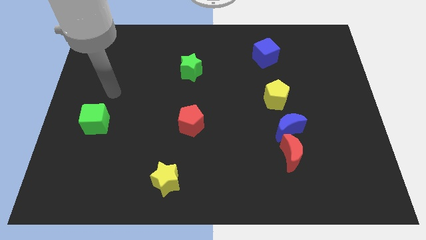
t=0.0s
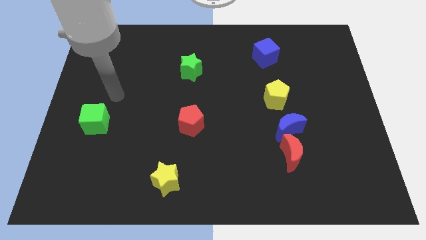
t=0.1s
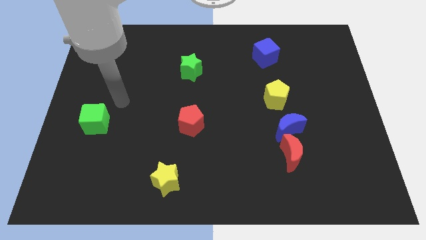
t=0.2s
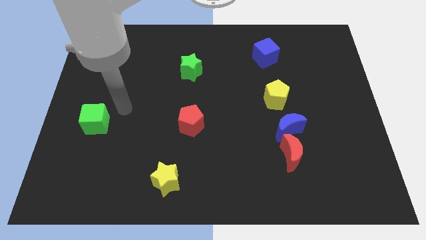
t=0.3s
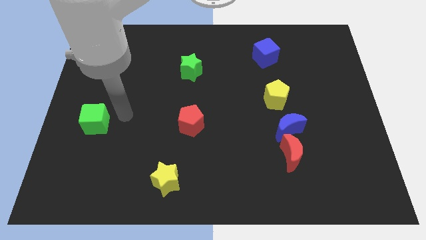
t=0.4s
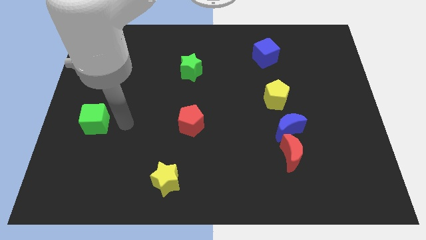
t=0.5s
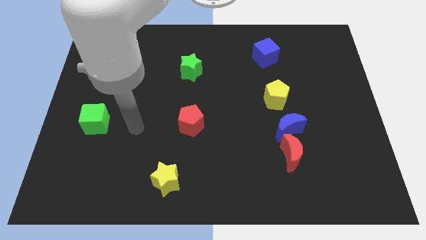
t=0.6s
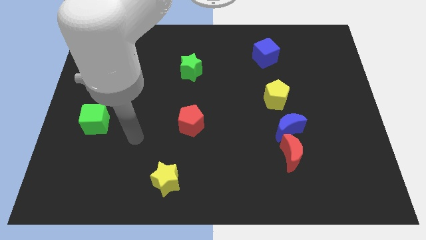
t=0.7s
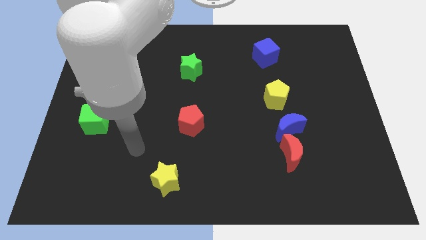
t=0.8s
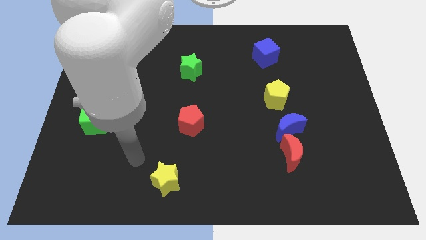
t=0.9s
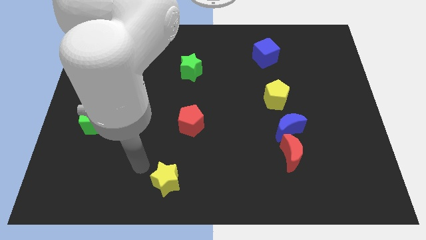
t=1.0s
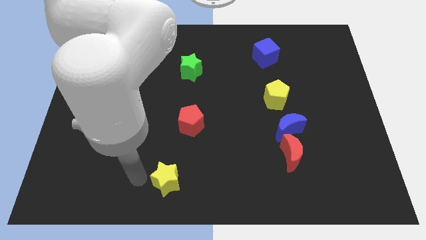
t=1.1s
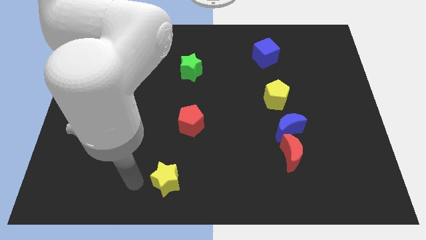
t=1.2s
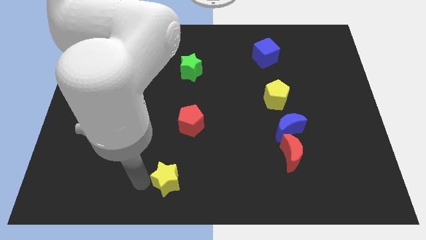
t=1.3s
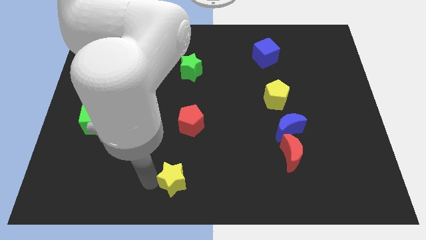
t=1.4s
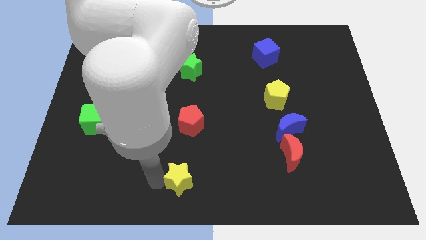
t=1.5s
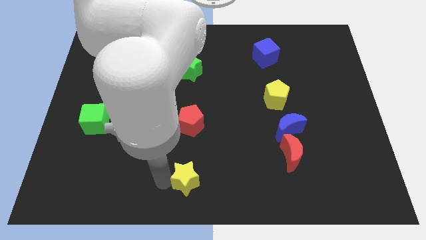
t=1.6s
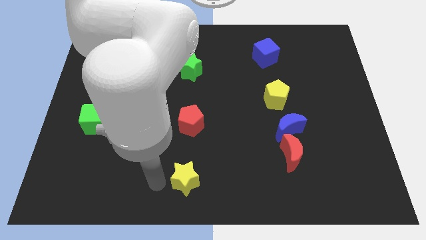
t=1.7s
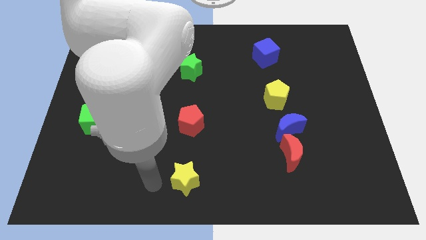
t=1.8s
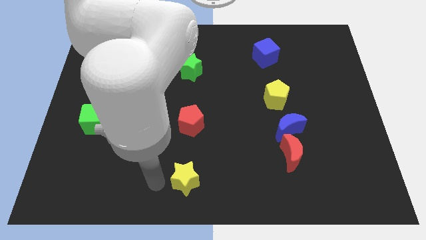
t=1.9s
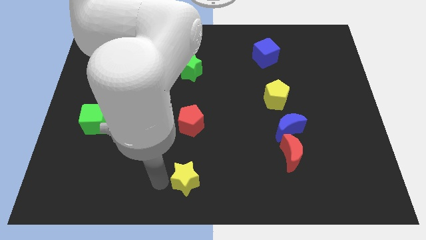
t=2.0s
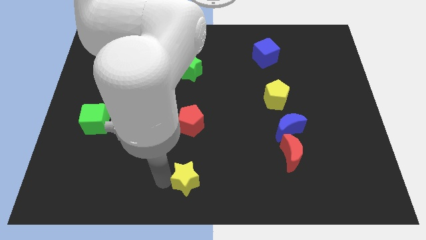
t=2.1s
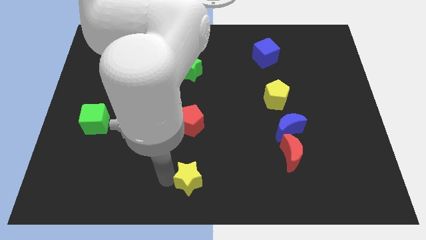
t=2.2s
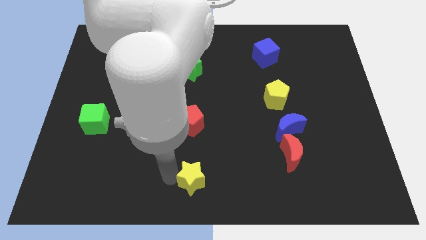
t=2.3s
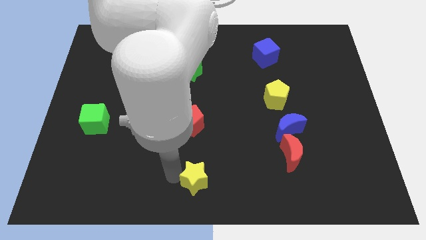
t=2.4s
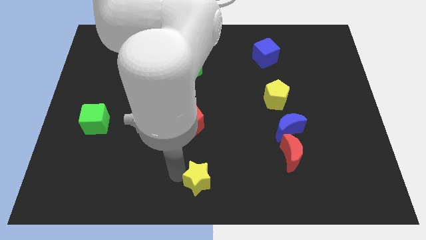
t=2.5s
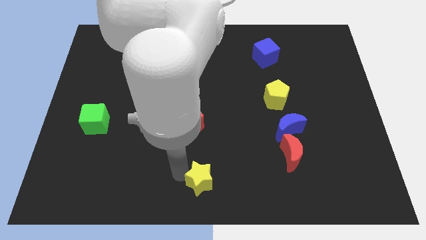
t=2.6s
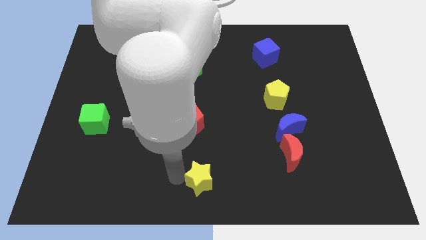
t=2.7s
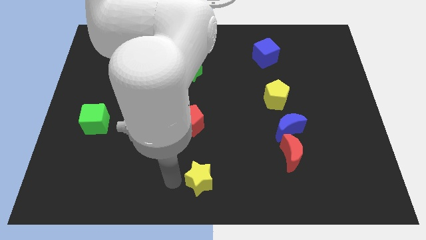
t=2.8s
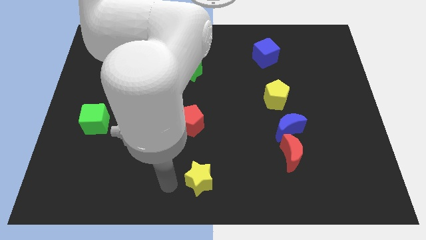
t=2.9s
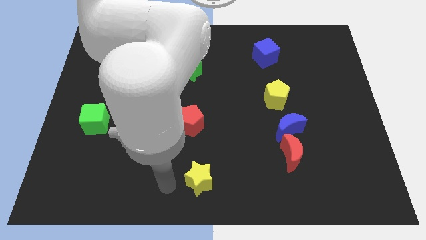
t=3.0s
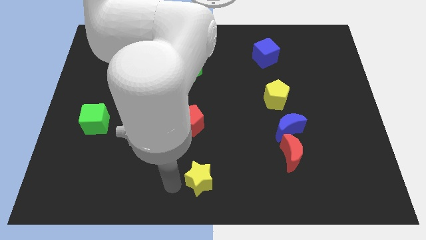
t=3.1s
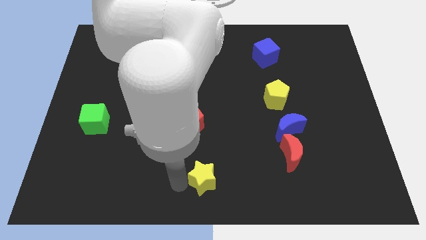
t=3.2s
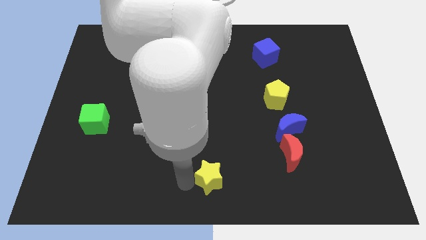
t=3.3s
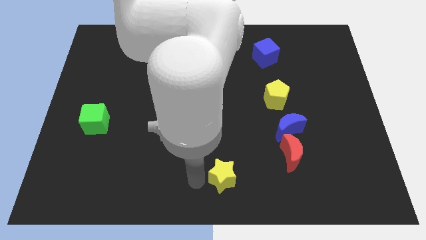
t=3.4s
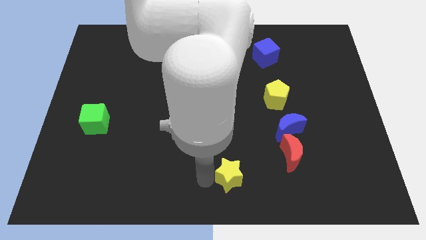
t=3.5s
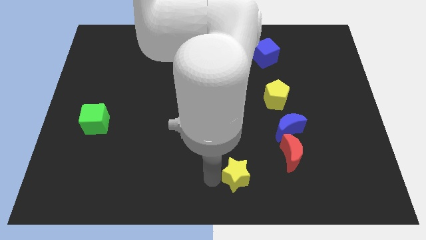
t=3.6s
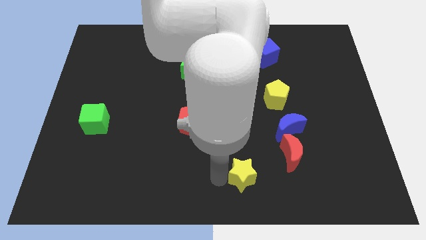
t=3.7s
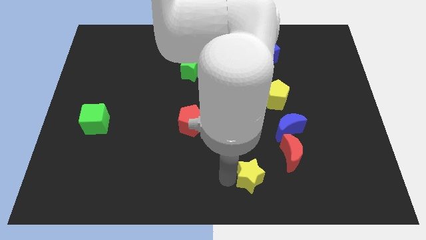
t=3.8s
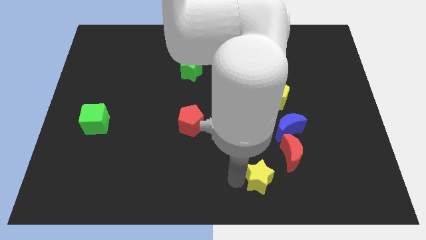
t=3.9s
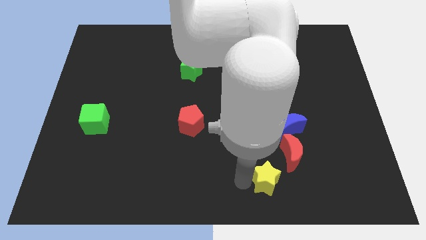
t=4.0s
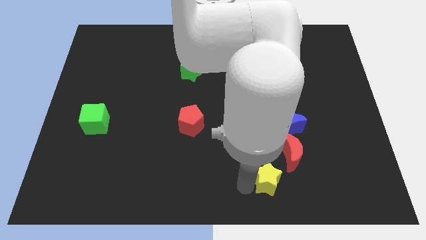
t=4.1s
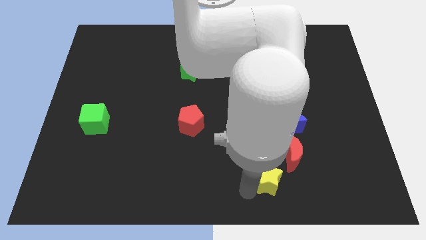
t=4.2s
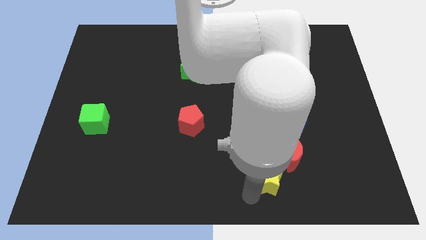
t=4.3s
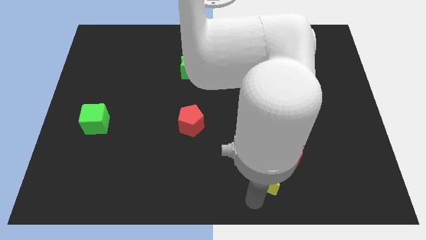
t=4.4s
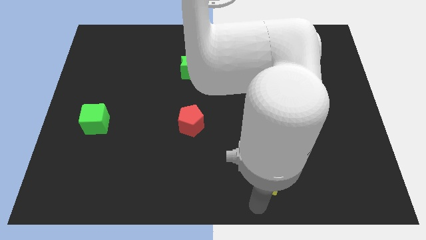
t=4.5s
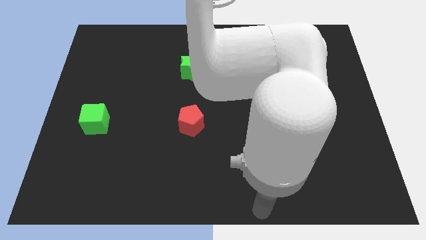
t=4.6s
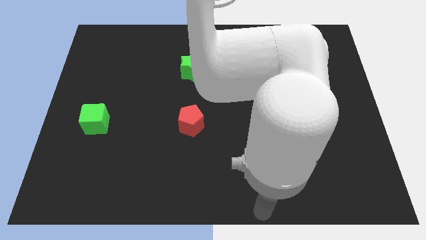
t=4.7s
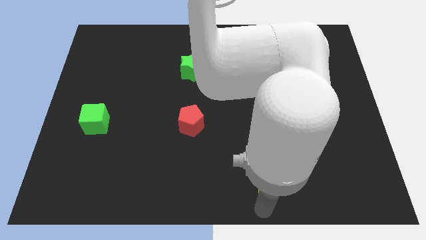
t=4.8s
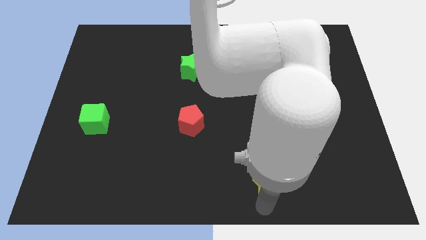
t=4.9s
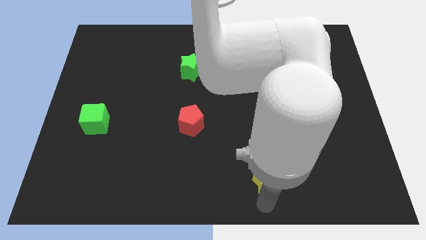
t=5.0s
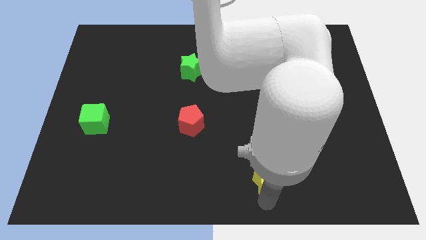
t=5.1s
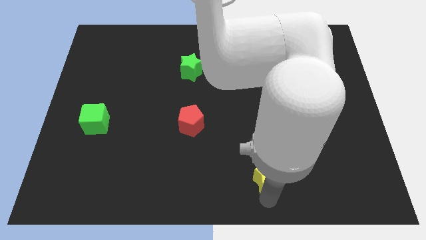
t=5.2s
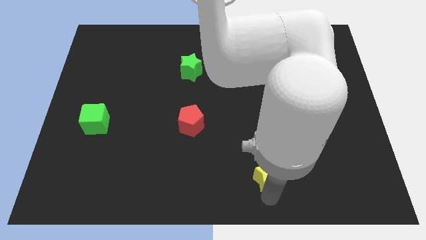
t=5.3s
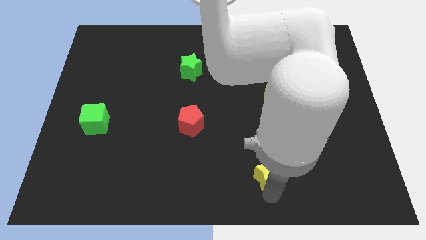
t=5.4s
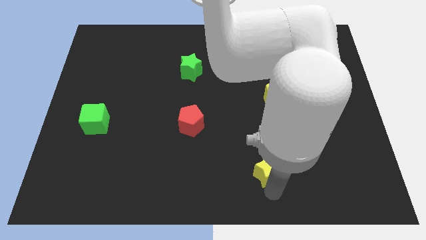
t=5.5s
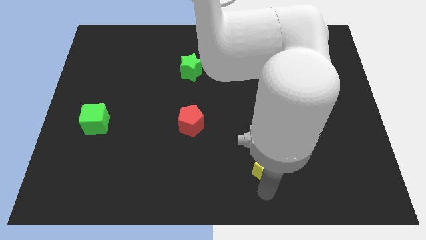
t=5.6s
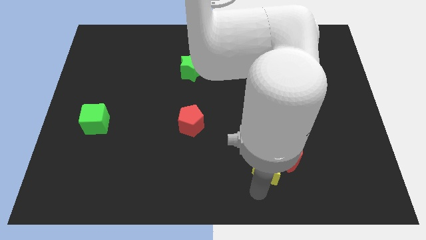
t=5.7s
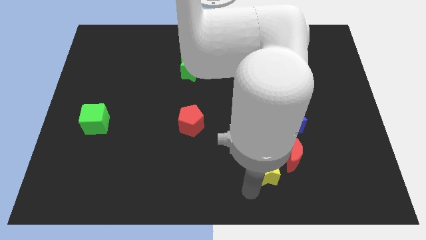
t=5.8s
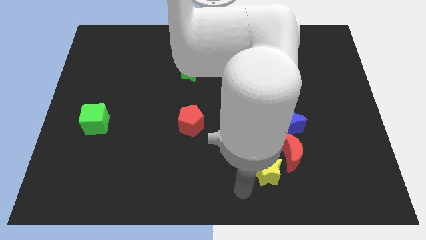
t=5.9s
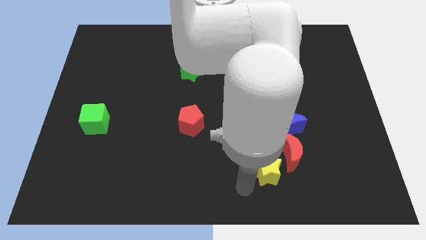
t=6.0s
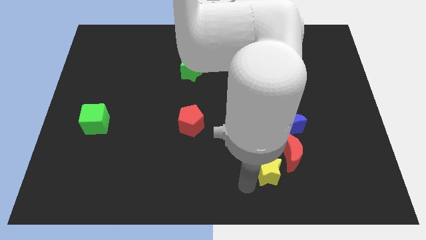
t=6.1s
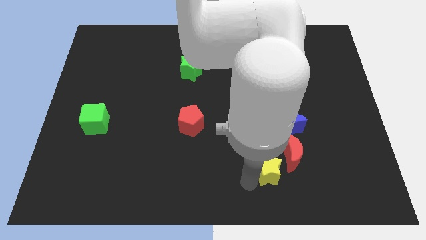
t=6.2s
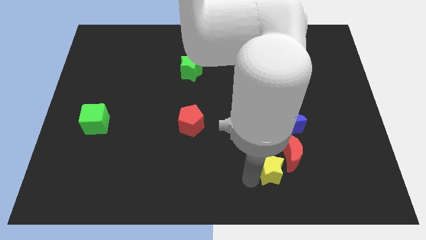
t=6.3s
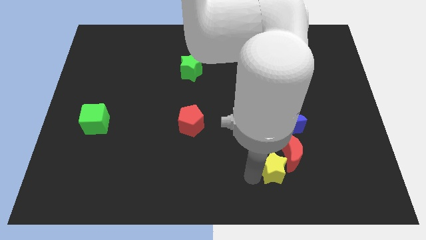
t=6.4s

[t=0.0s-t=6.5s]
slide the yellow star to the red moon

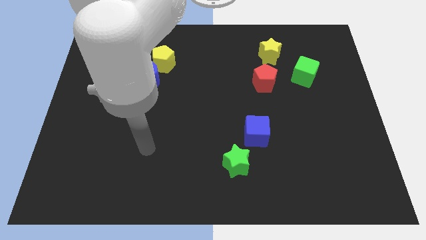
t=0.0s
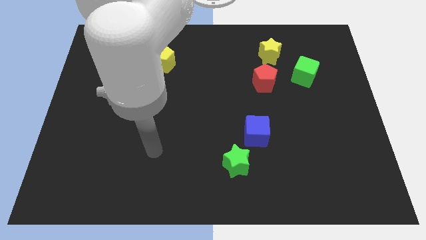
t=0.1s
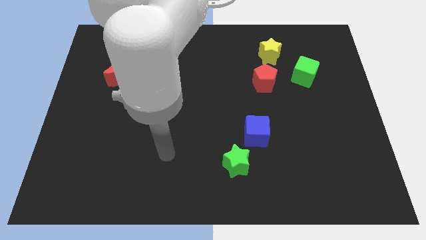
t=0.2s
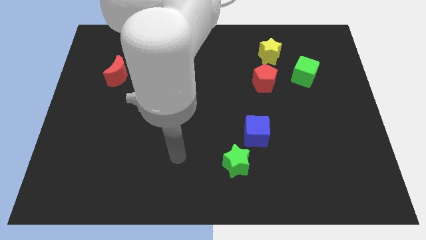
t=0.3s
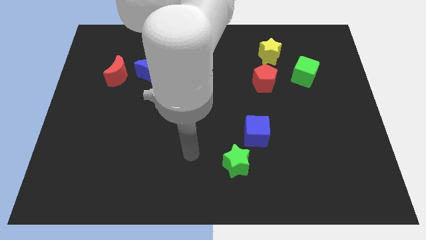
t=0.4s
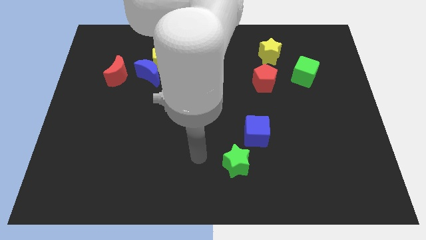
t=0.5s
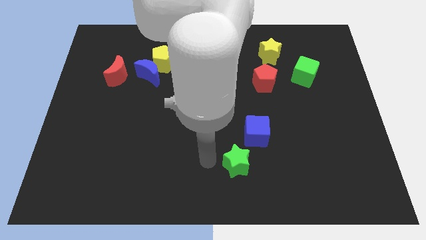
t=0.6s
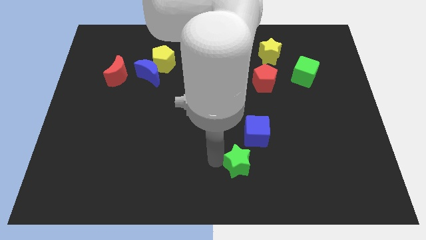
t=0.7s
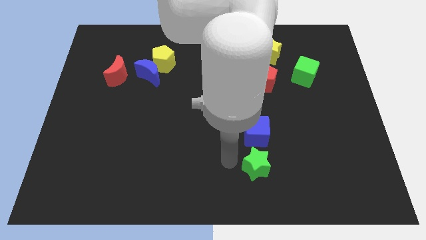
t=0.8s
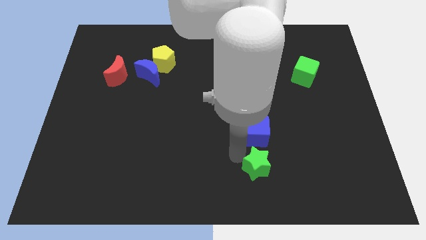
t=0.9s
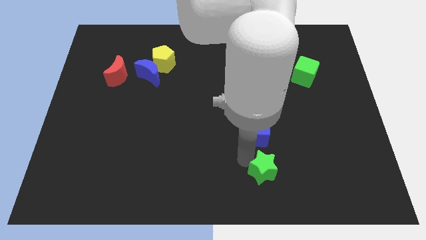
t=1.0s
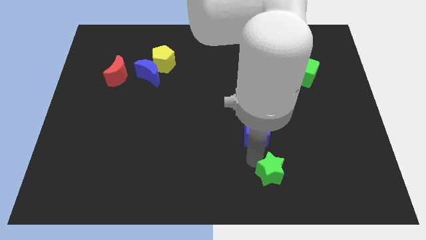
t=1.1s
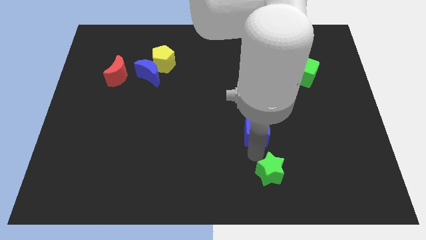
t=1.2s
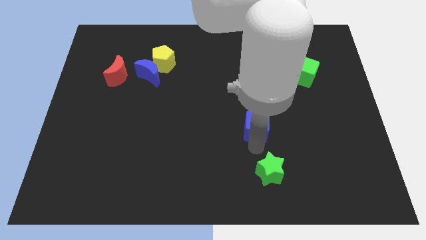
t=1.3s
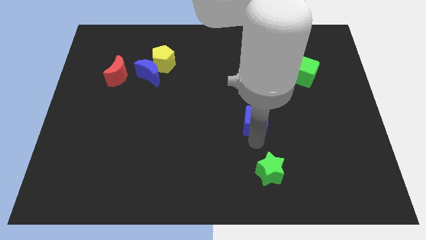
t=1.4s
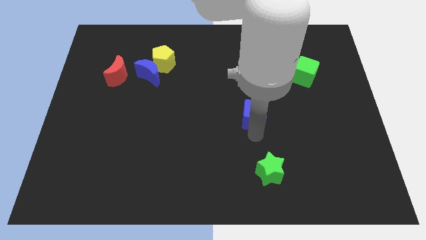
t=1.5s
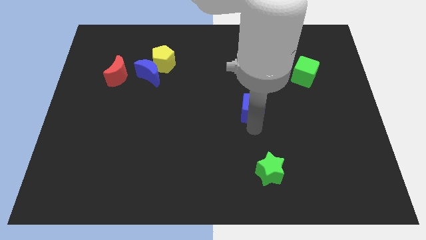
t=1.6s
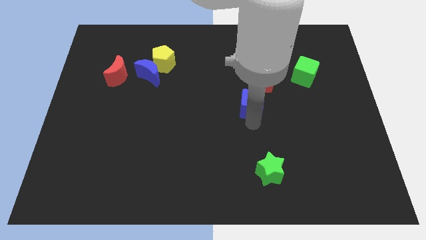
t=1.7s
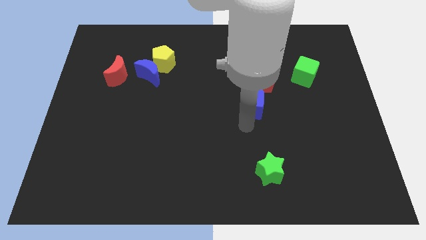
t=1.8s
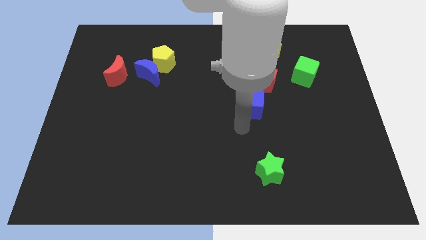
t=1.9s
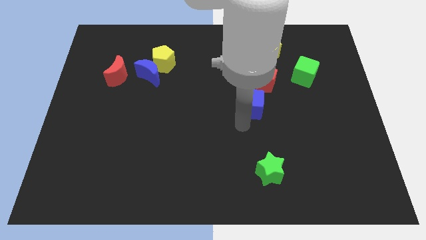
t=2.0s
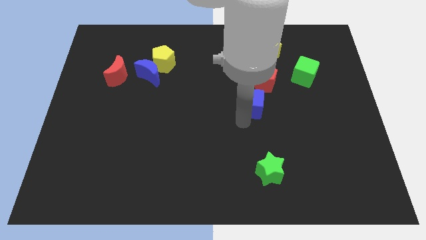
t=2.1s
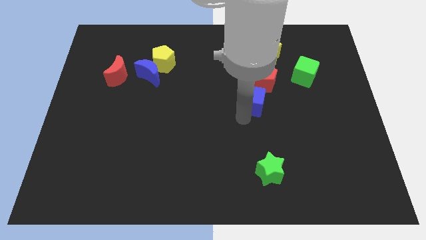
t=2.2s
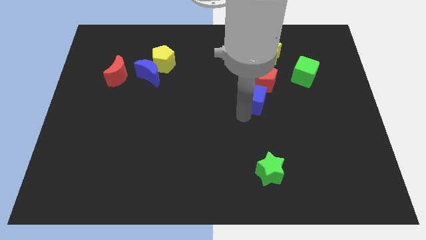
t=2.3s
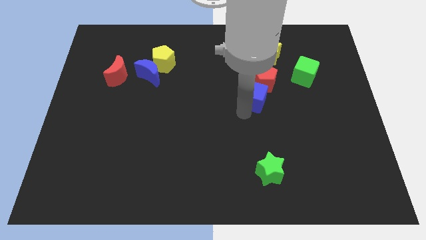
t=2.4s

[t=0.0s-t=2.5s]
move the blue cube next to the red pentagon
